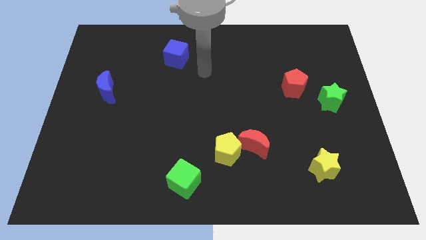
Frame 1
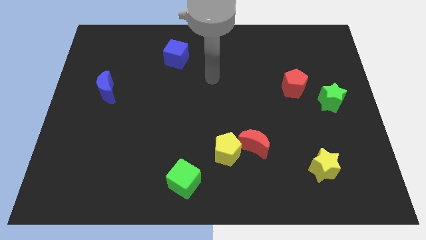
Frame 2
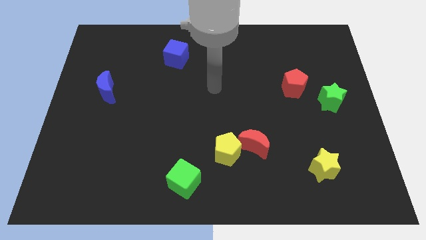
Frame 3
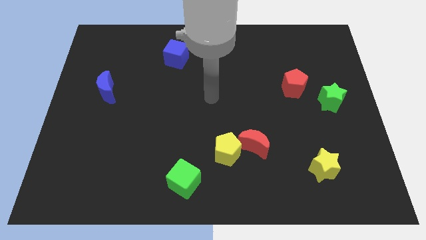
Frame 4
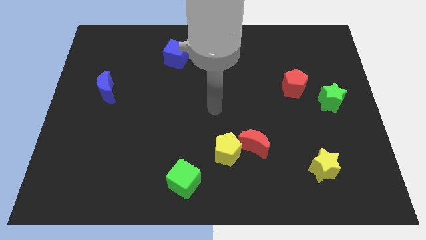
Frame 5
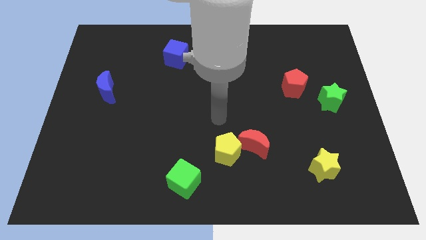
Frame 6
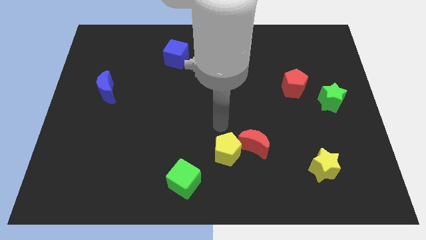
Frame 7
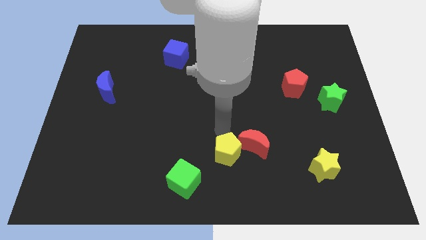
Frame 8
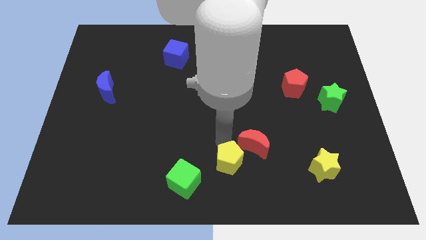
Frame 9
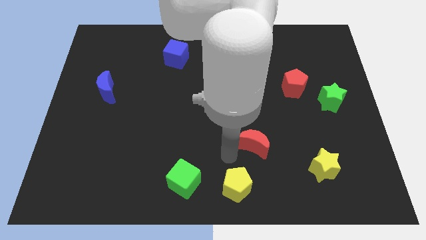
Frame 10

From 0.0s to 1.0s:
separate the red moon from the yellow pentagon

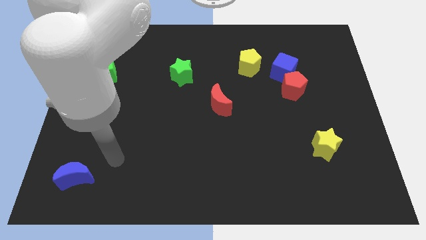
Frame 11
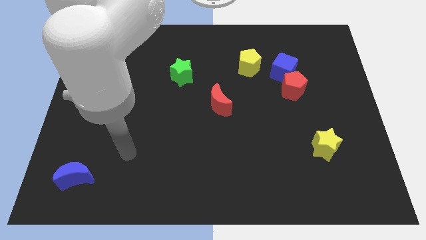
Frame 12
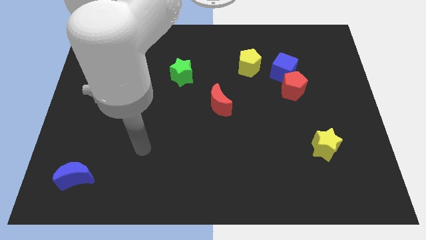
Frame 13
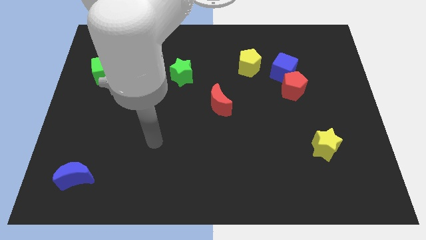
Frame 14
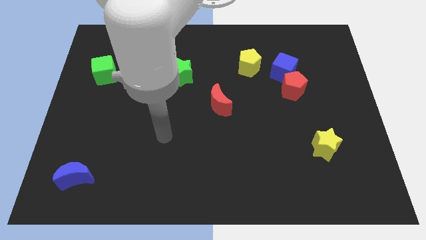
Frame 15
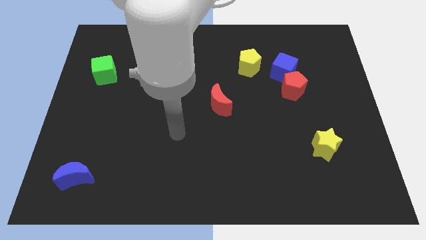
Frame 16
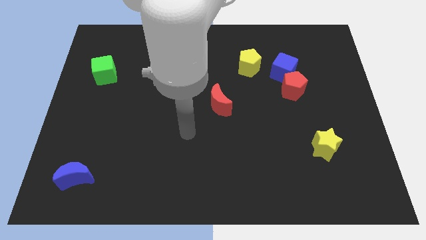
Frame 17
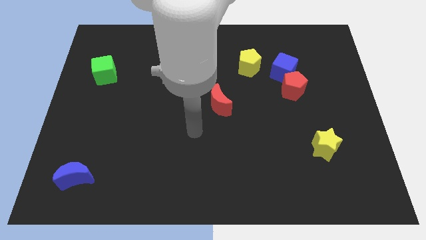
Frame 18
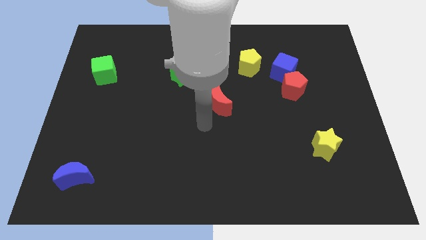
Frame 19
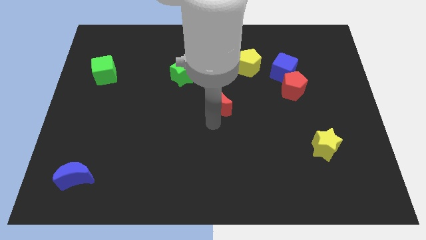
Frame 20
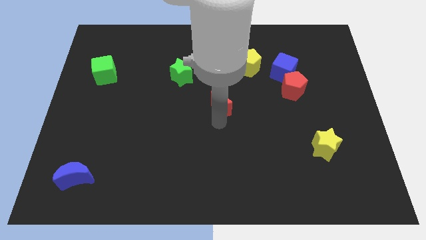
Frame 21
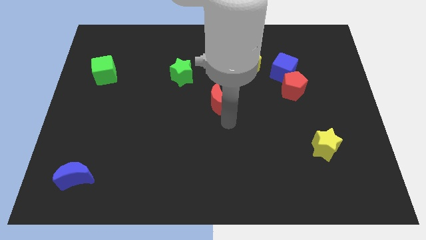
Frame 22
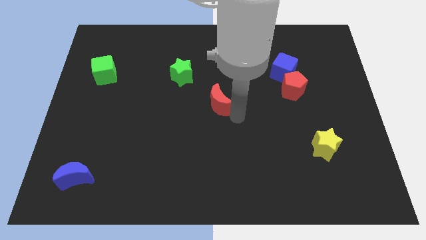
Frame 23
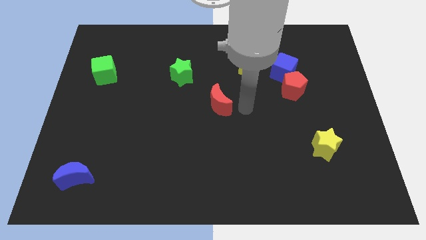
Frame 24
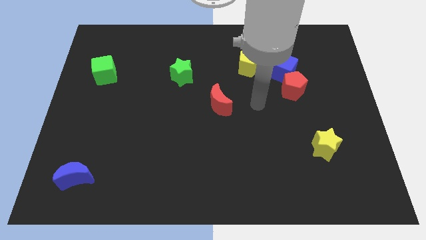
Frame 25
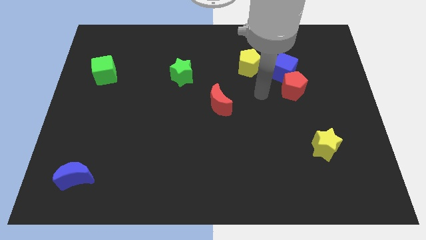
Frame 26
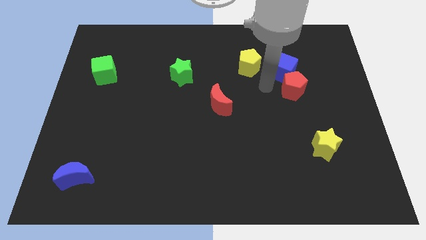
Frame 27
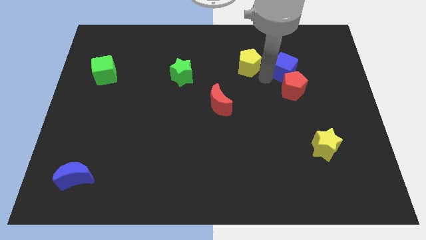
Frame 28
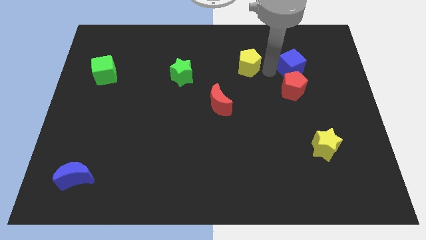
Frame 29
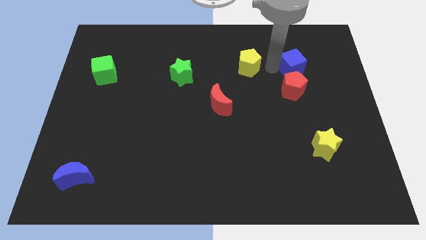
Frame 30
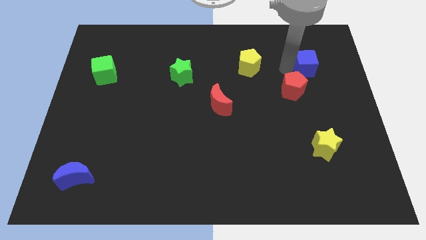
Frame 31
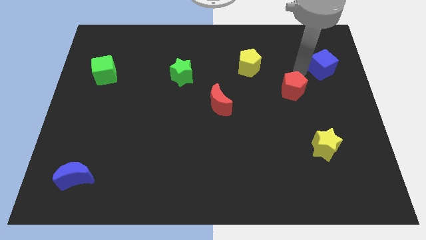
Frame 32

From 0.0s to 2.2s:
pull the red pentagon apart from the blue cube

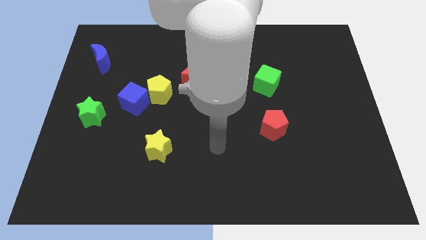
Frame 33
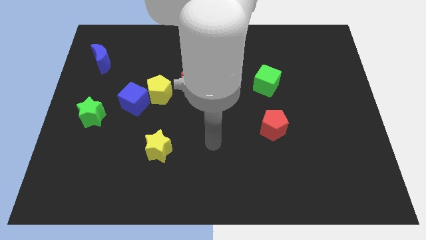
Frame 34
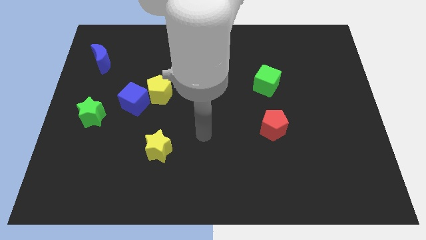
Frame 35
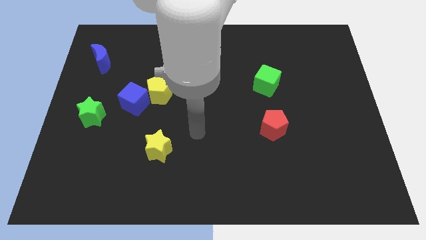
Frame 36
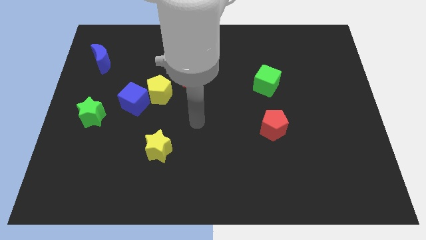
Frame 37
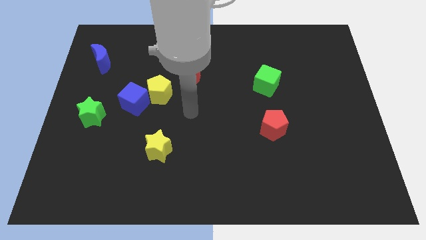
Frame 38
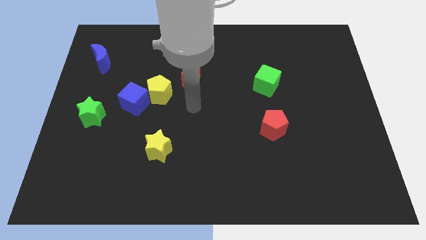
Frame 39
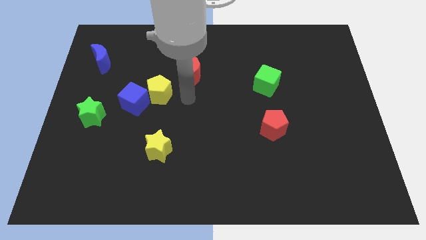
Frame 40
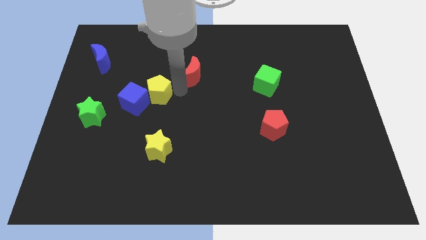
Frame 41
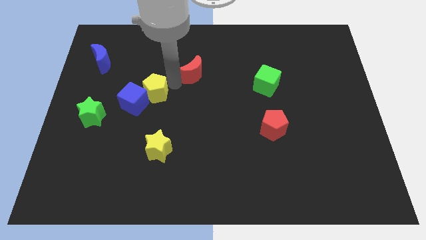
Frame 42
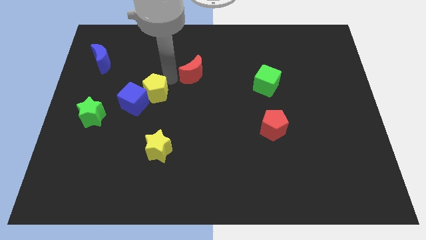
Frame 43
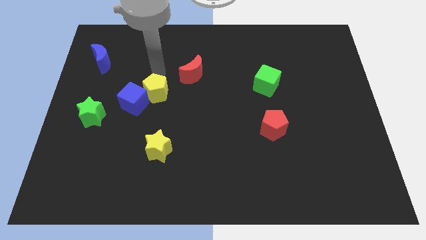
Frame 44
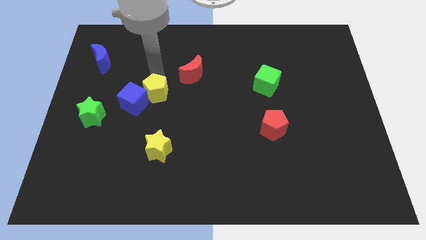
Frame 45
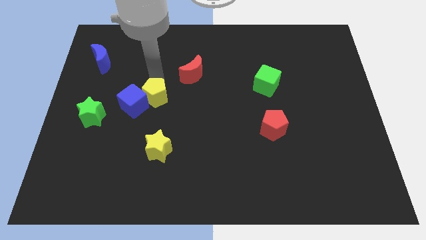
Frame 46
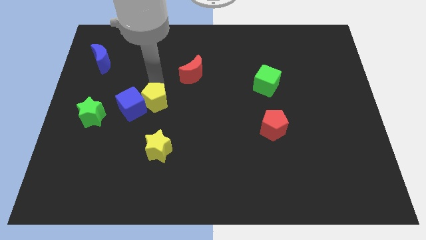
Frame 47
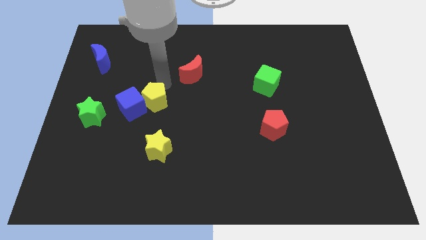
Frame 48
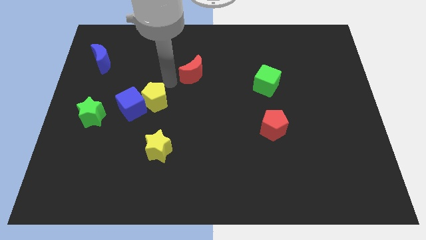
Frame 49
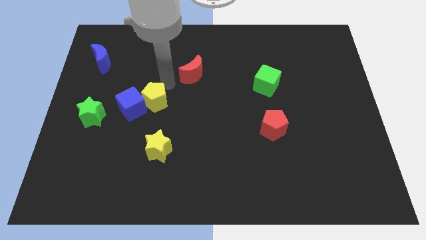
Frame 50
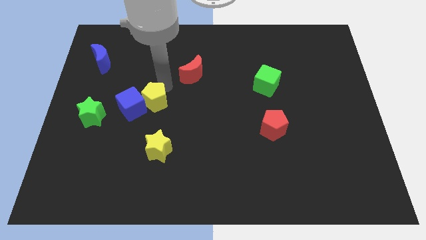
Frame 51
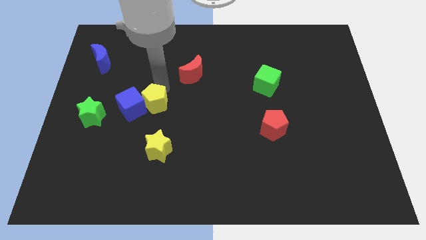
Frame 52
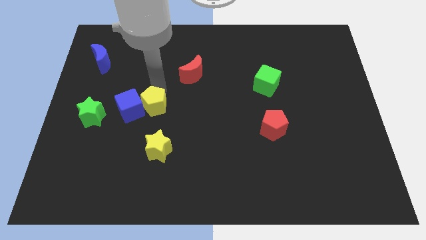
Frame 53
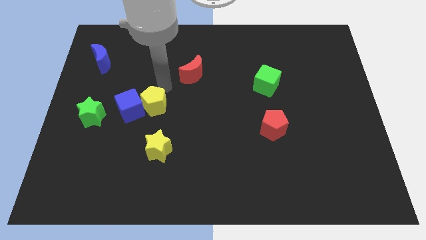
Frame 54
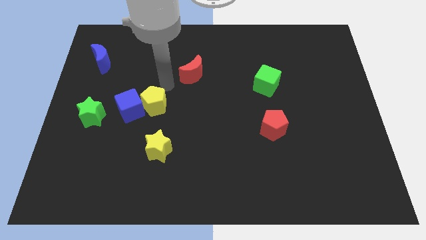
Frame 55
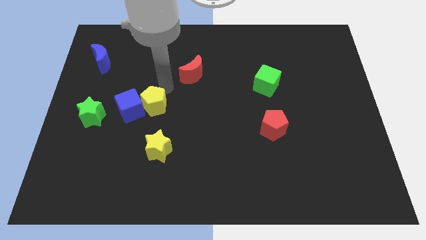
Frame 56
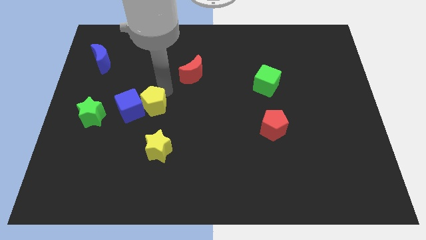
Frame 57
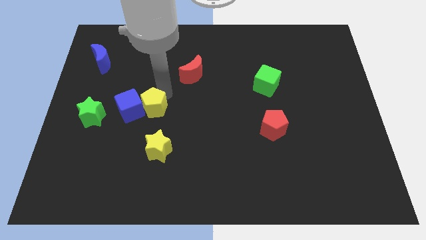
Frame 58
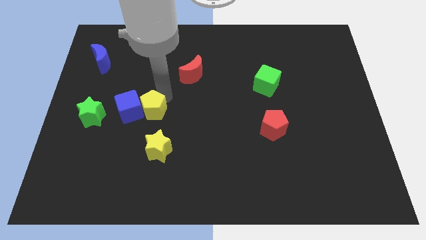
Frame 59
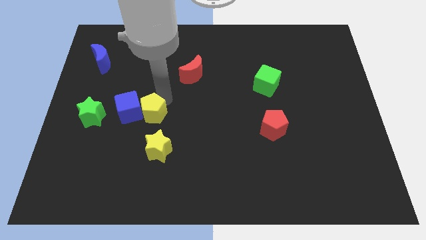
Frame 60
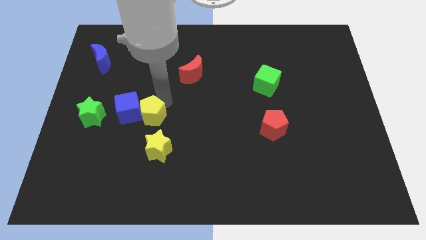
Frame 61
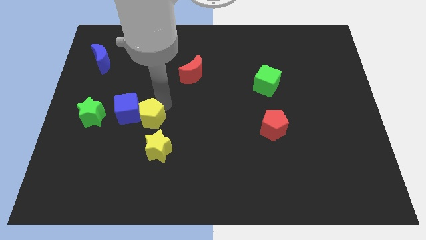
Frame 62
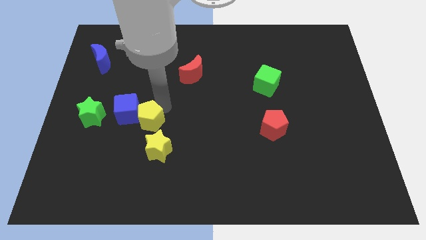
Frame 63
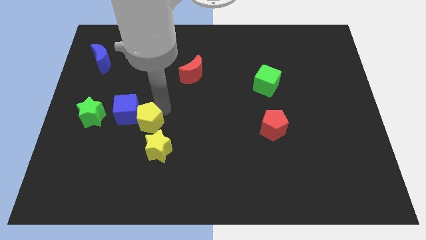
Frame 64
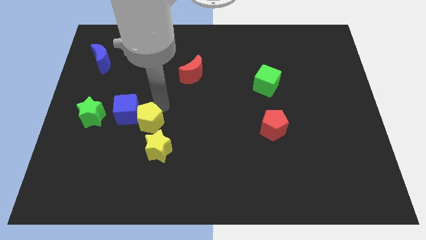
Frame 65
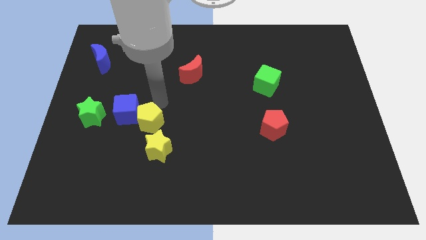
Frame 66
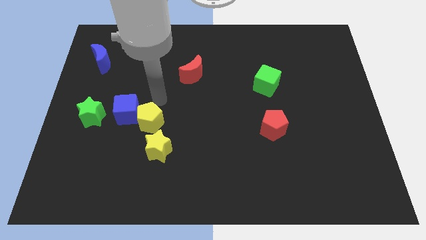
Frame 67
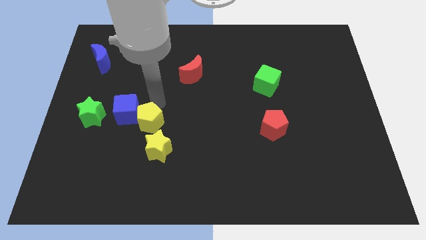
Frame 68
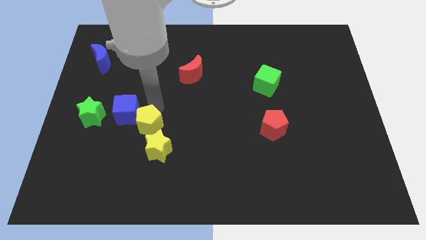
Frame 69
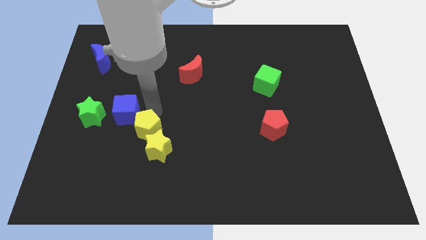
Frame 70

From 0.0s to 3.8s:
separate the yellow pentagon from the blue cube and red moon

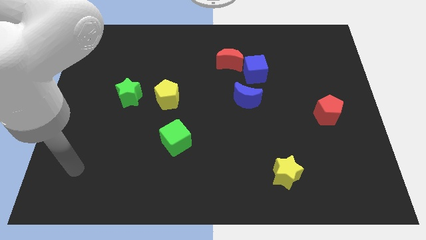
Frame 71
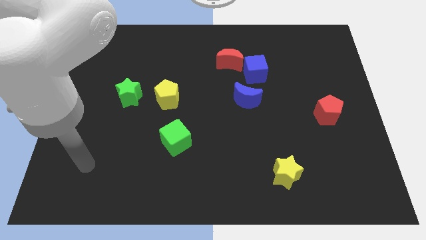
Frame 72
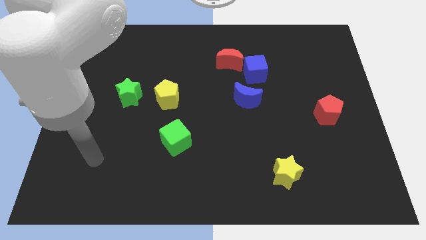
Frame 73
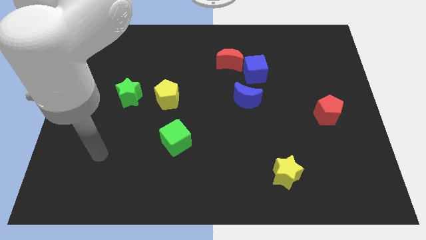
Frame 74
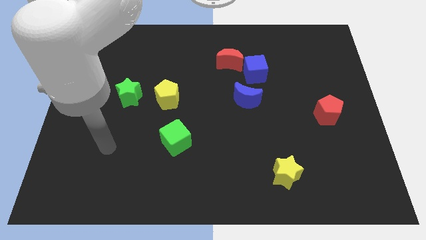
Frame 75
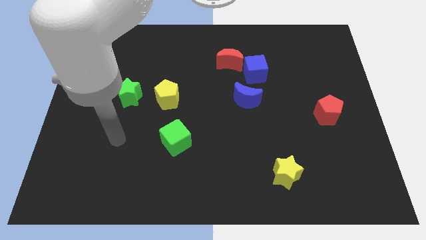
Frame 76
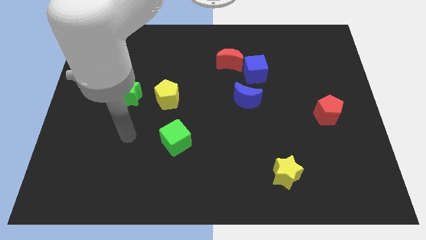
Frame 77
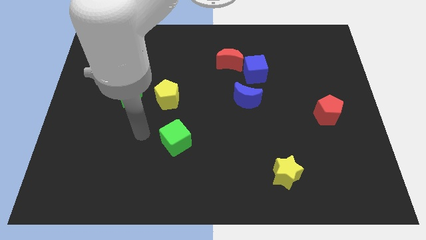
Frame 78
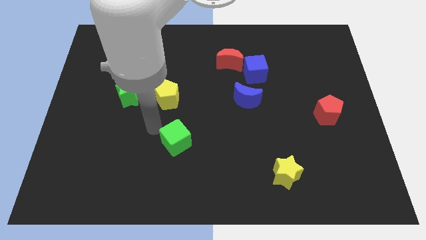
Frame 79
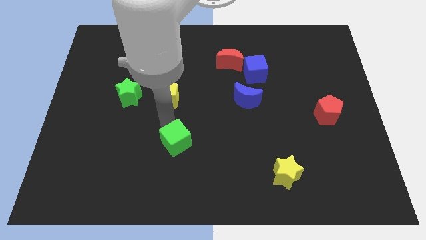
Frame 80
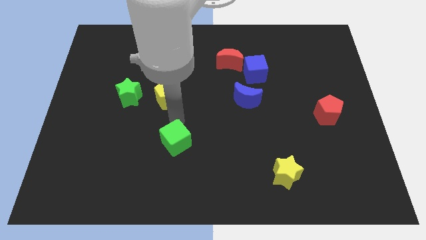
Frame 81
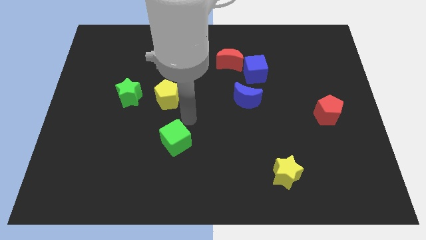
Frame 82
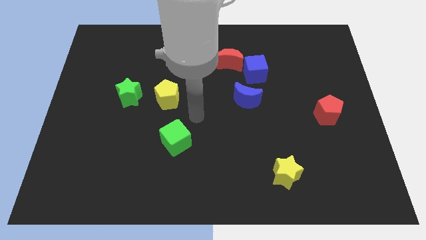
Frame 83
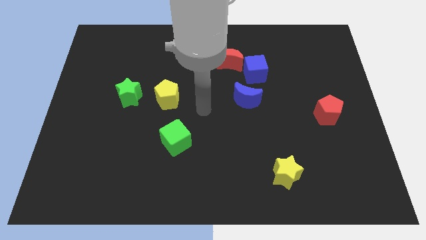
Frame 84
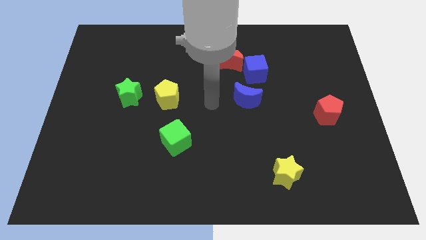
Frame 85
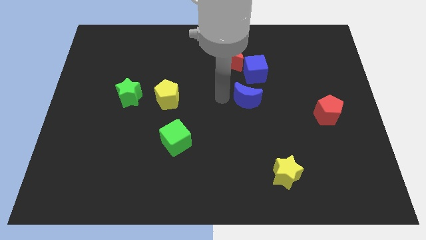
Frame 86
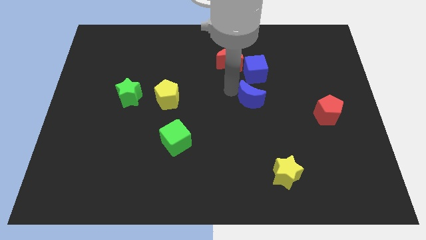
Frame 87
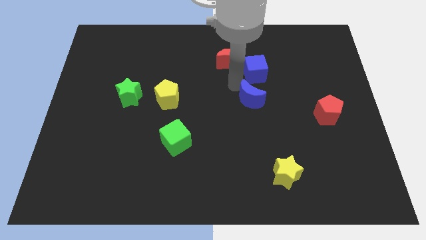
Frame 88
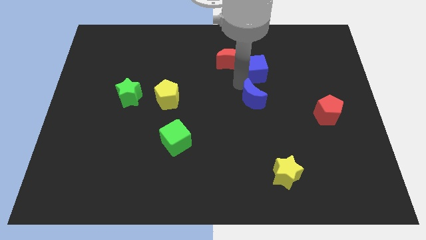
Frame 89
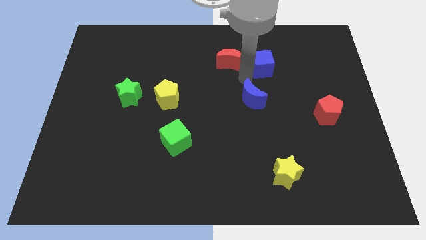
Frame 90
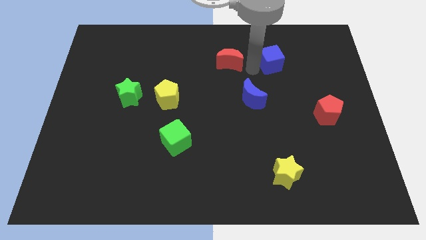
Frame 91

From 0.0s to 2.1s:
move the red moon away from the blue cube

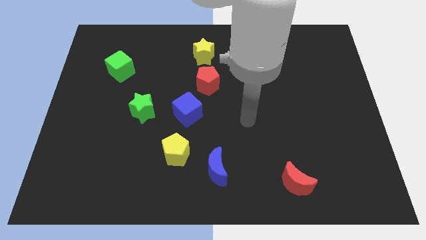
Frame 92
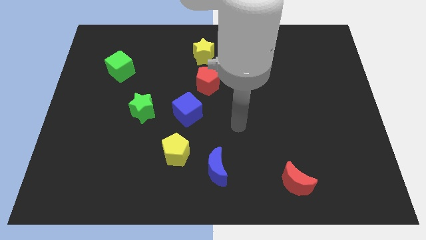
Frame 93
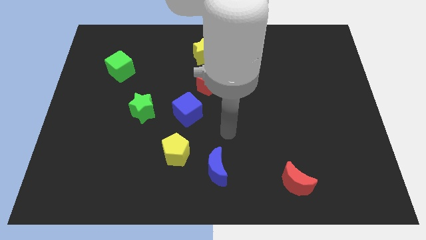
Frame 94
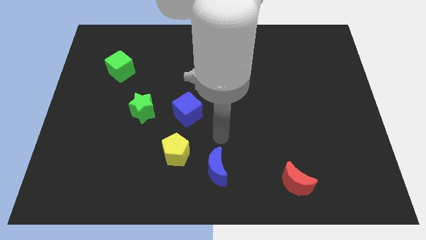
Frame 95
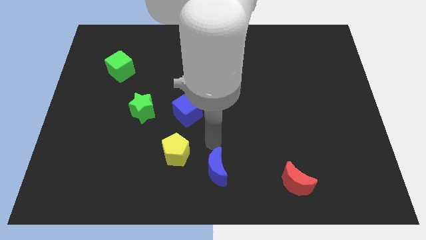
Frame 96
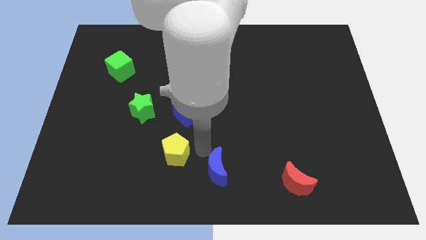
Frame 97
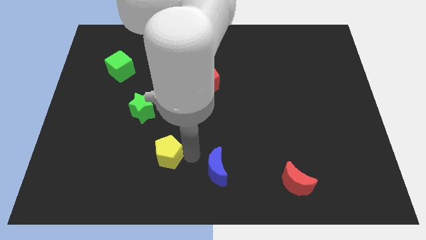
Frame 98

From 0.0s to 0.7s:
separate the blue moon from the yellow pentagon
